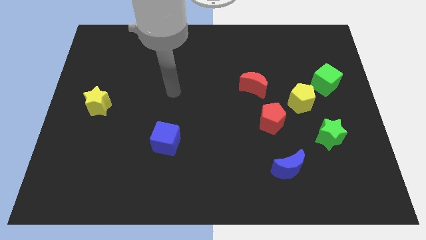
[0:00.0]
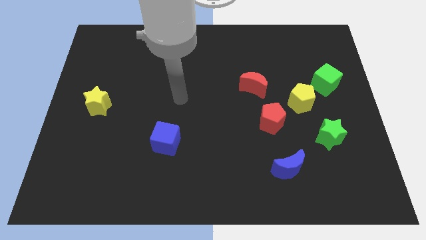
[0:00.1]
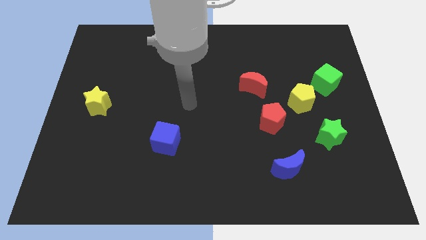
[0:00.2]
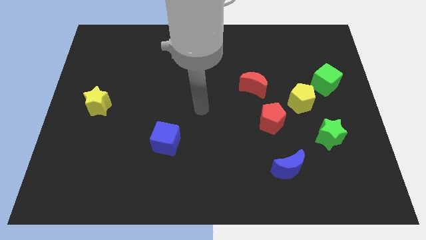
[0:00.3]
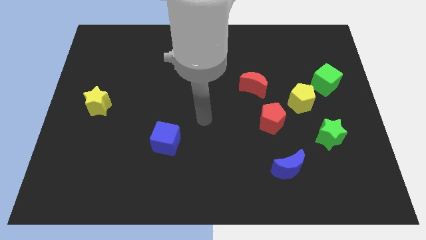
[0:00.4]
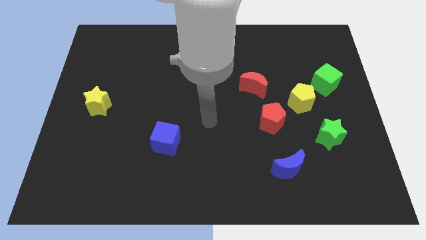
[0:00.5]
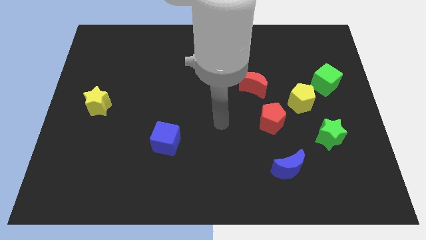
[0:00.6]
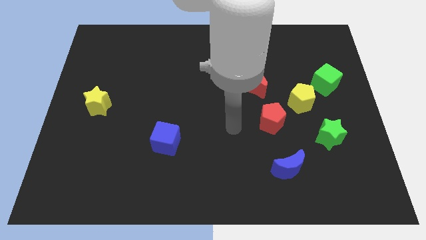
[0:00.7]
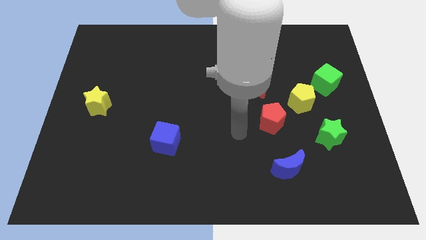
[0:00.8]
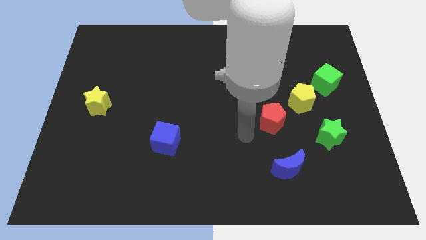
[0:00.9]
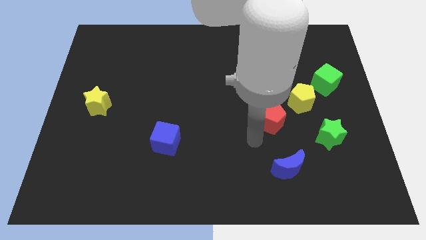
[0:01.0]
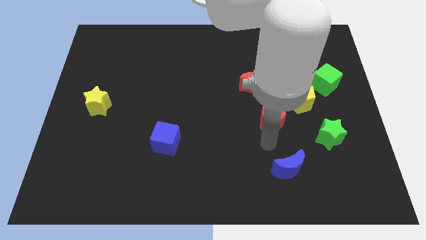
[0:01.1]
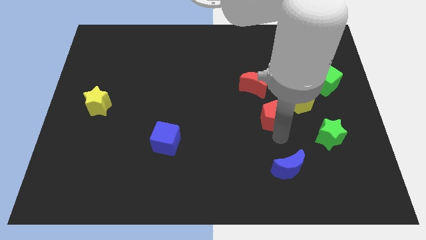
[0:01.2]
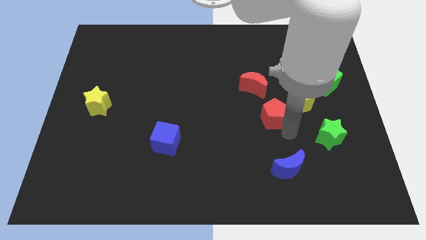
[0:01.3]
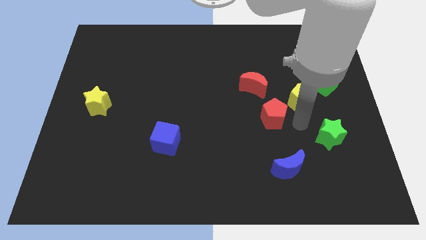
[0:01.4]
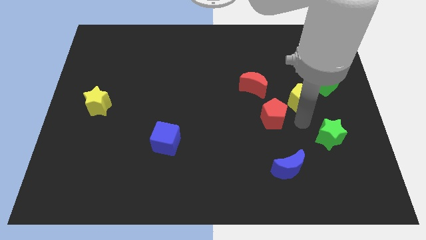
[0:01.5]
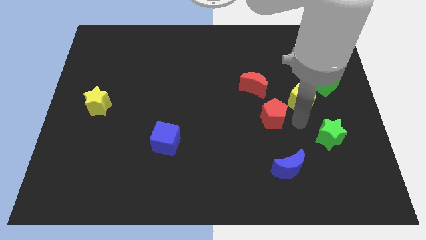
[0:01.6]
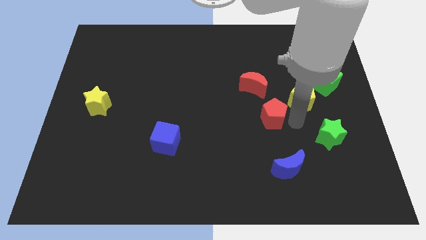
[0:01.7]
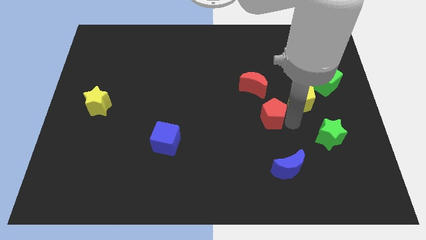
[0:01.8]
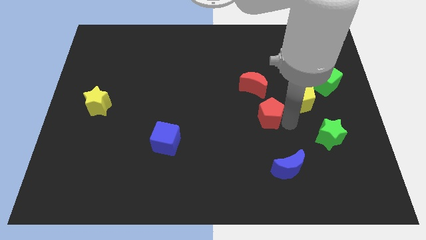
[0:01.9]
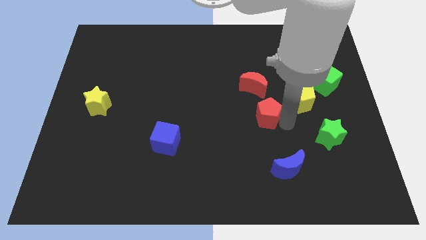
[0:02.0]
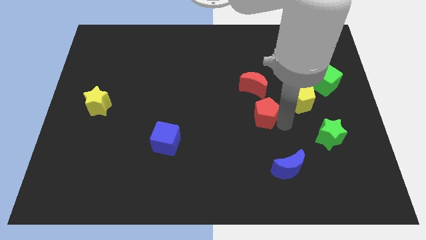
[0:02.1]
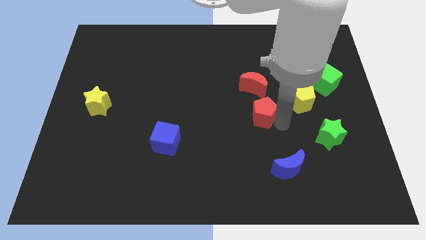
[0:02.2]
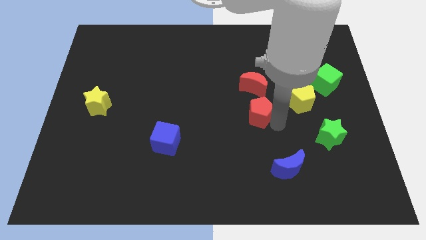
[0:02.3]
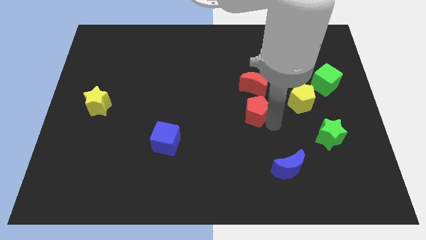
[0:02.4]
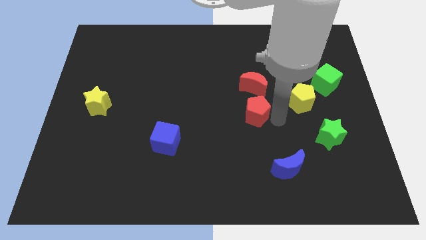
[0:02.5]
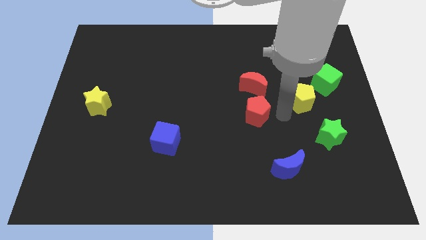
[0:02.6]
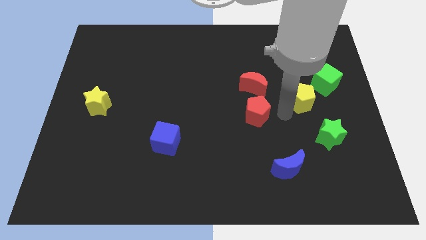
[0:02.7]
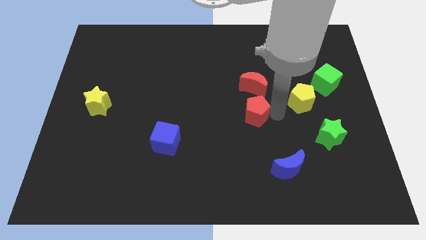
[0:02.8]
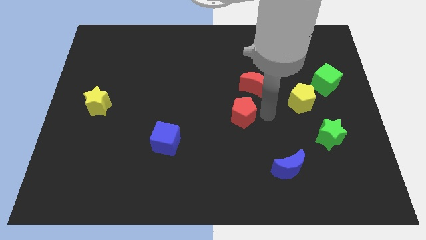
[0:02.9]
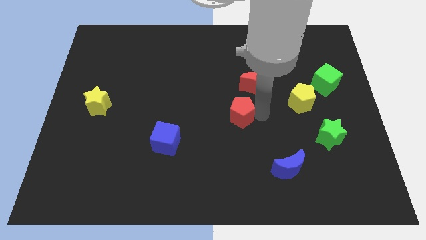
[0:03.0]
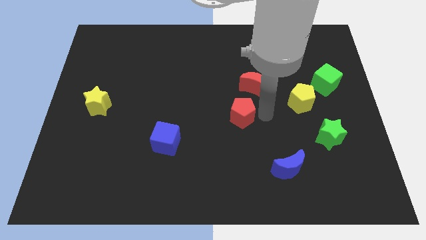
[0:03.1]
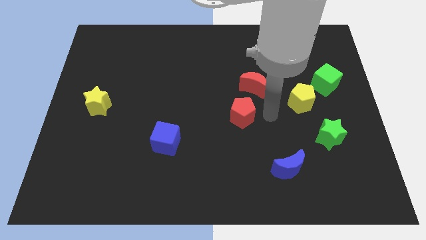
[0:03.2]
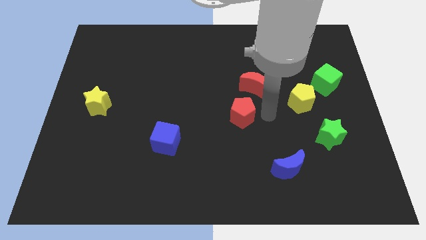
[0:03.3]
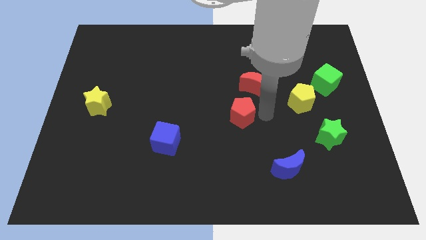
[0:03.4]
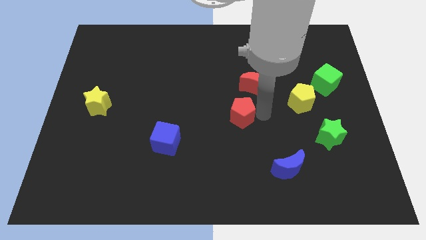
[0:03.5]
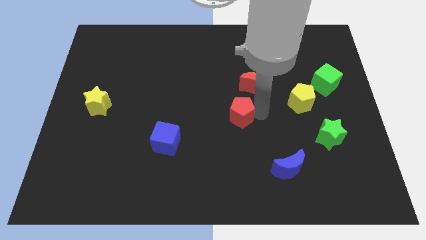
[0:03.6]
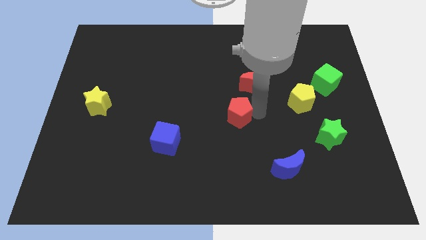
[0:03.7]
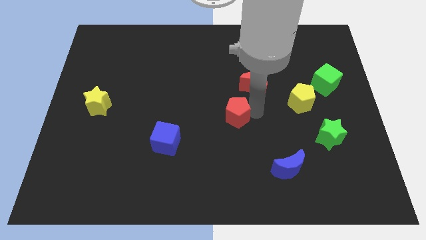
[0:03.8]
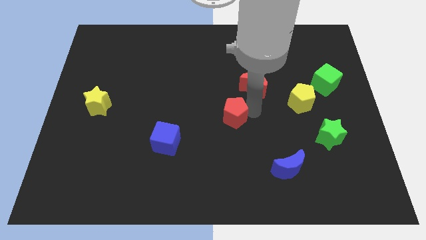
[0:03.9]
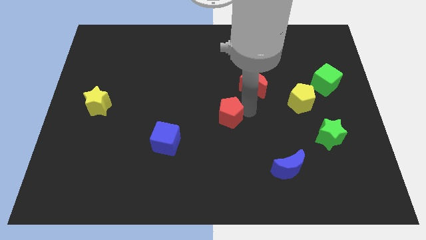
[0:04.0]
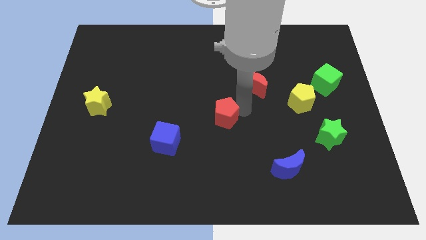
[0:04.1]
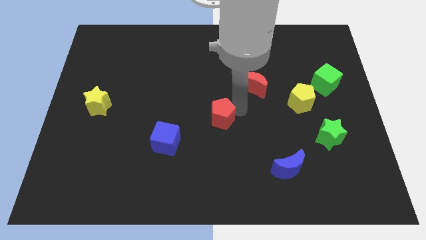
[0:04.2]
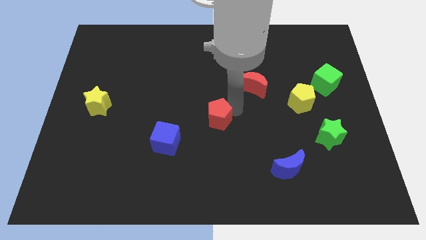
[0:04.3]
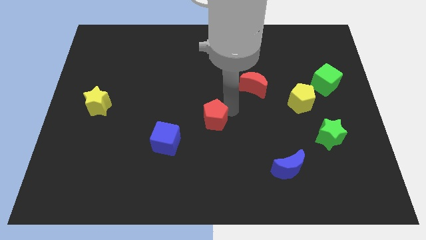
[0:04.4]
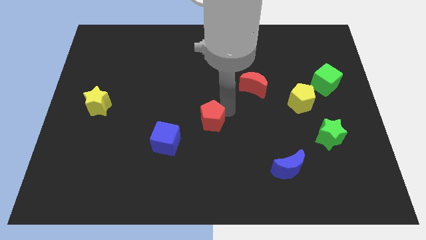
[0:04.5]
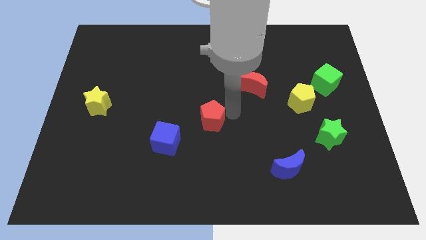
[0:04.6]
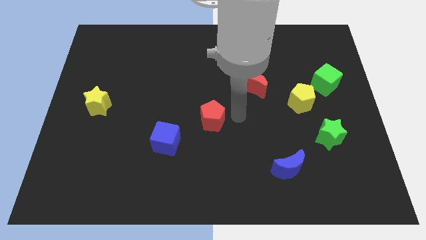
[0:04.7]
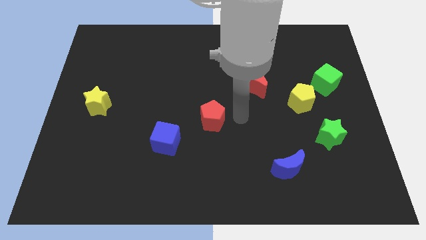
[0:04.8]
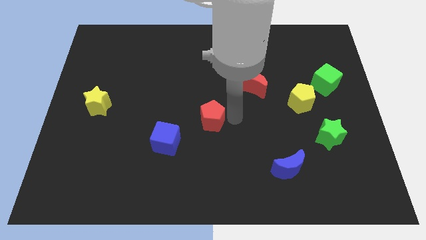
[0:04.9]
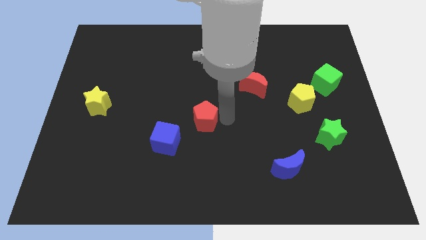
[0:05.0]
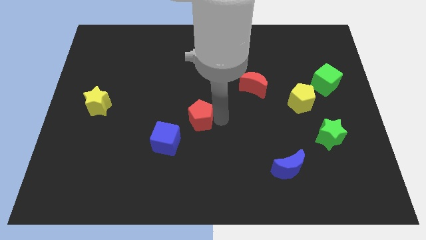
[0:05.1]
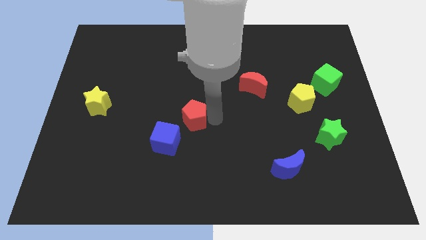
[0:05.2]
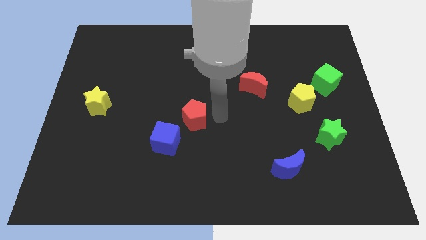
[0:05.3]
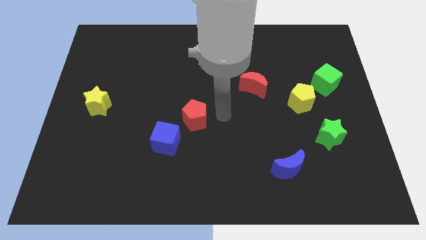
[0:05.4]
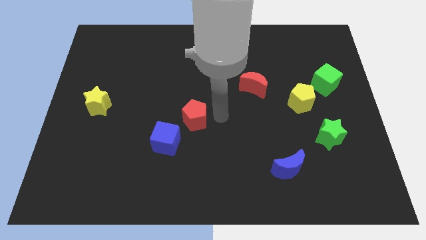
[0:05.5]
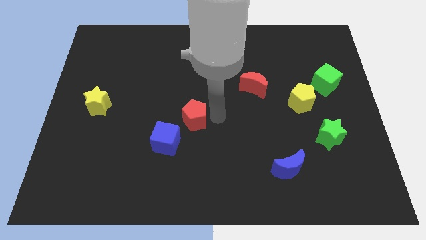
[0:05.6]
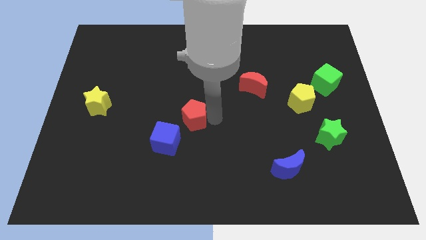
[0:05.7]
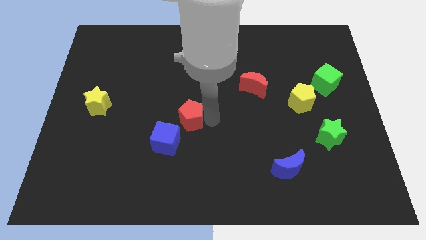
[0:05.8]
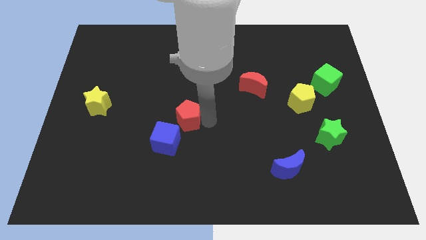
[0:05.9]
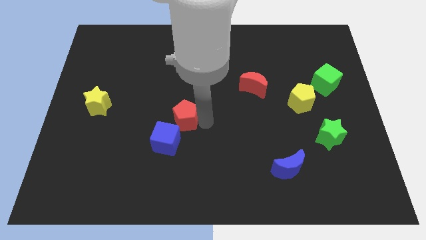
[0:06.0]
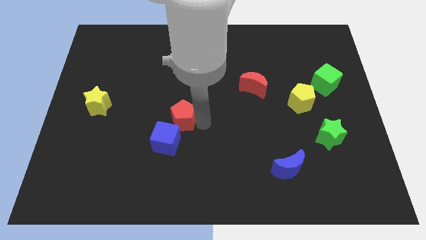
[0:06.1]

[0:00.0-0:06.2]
move the red pentagon left

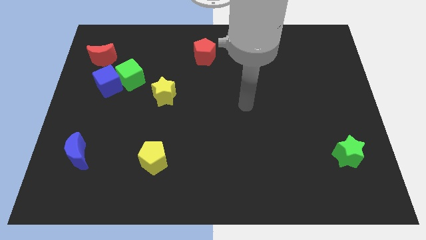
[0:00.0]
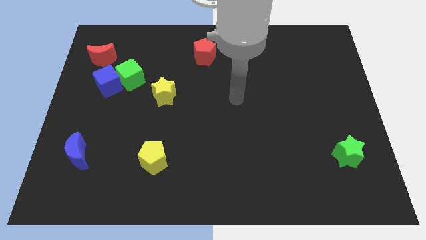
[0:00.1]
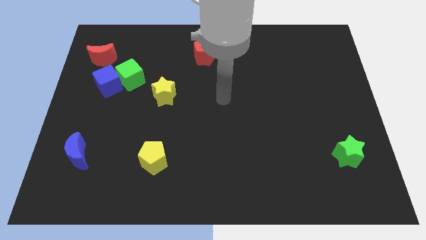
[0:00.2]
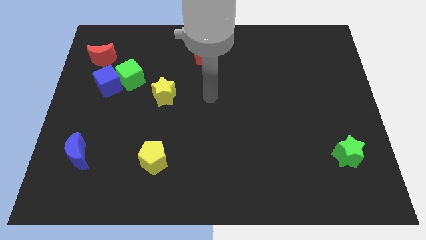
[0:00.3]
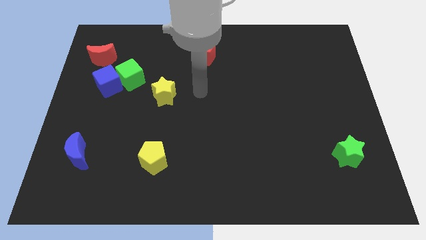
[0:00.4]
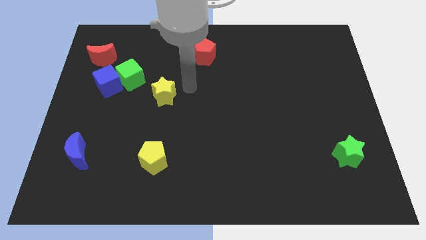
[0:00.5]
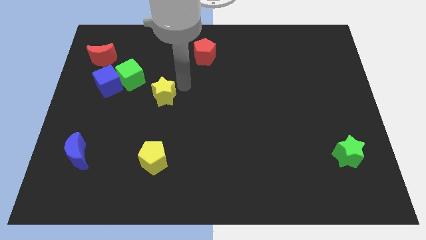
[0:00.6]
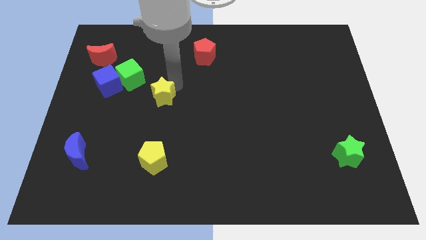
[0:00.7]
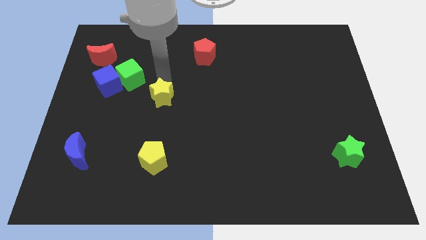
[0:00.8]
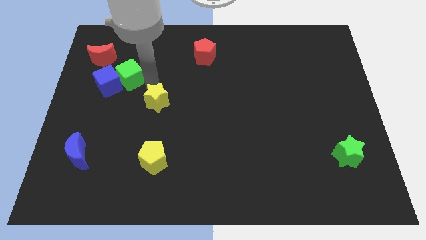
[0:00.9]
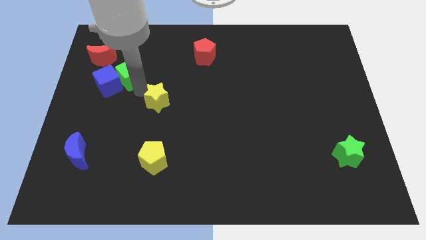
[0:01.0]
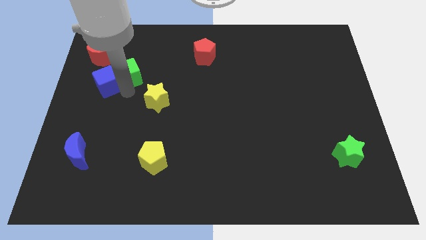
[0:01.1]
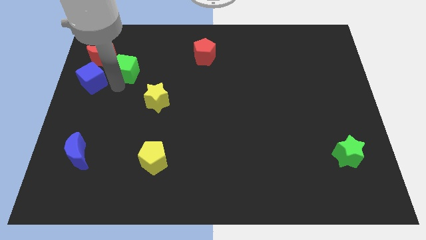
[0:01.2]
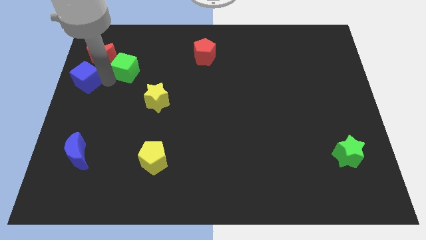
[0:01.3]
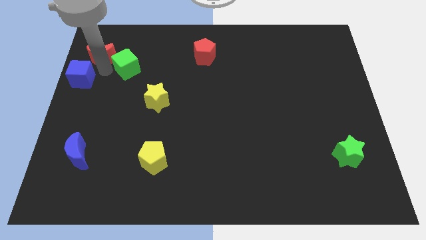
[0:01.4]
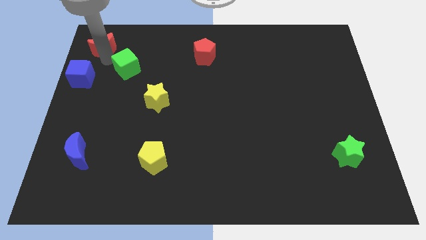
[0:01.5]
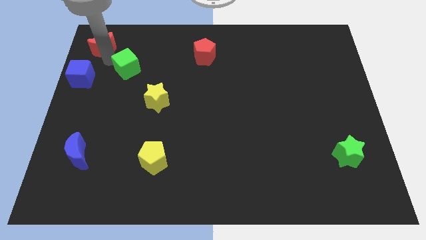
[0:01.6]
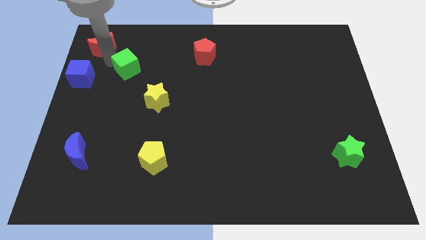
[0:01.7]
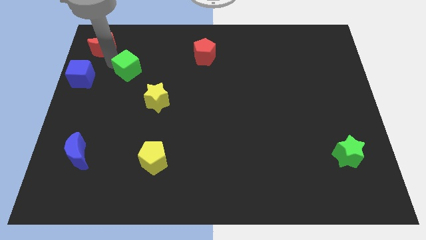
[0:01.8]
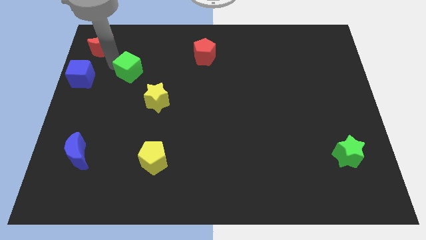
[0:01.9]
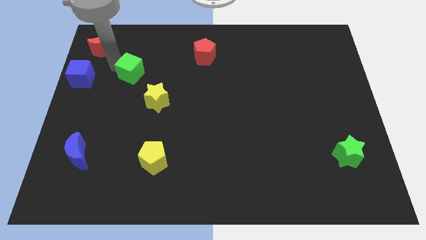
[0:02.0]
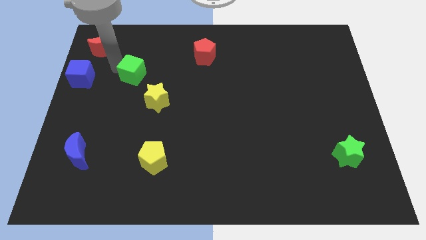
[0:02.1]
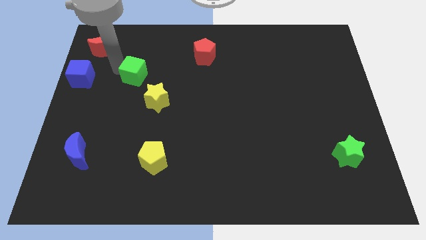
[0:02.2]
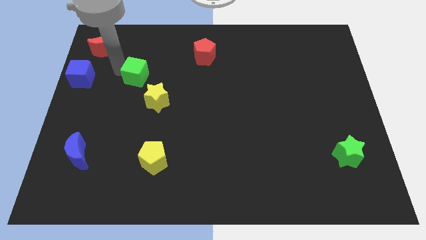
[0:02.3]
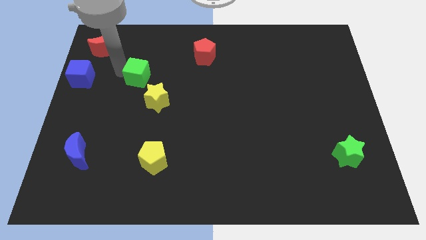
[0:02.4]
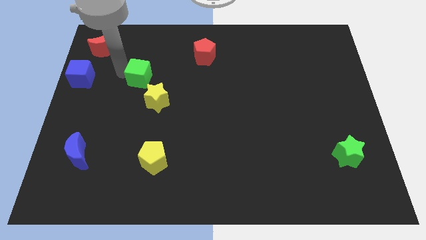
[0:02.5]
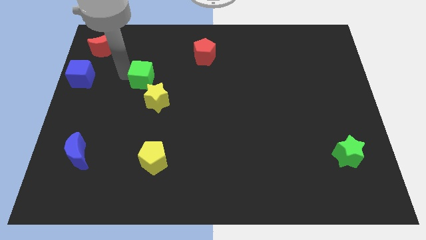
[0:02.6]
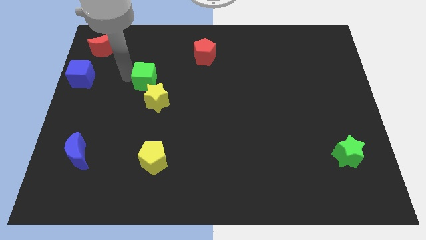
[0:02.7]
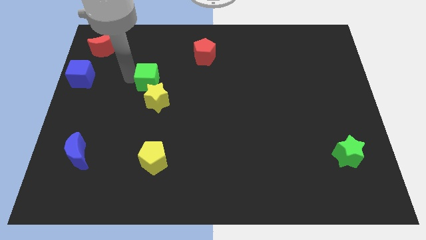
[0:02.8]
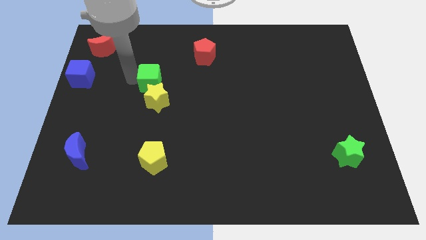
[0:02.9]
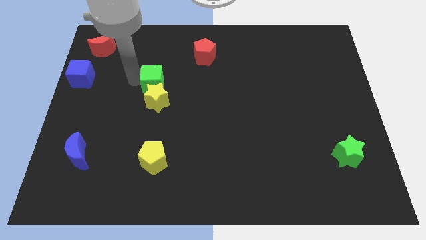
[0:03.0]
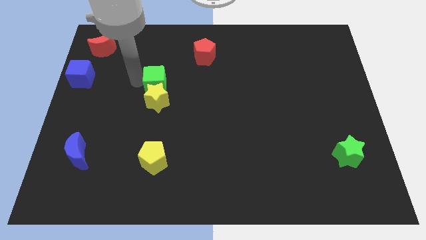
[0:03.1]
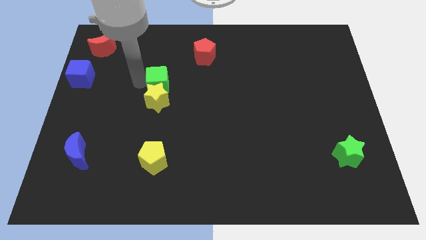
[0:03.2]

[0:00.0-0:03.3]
move the green cube a bit to the right
